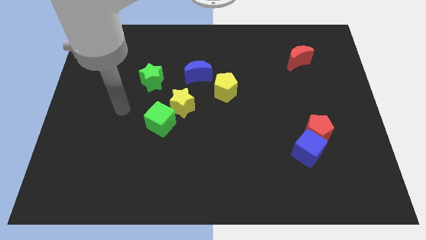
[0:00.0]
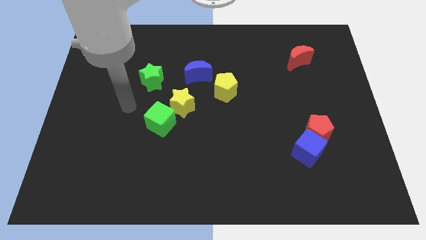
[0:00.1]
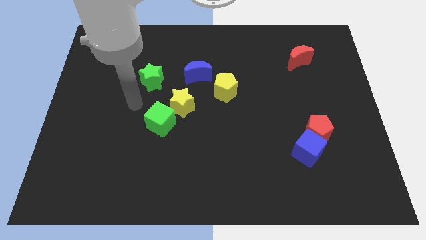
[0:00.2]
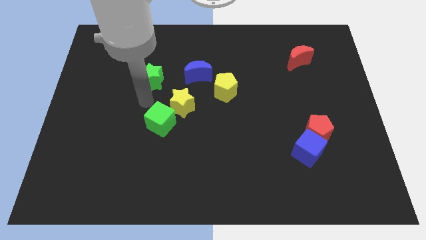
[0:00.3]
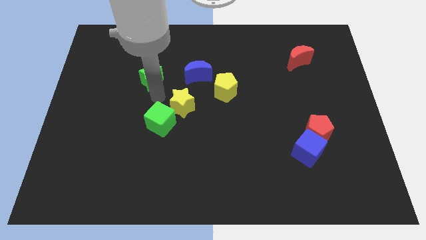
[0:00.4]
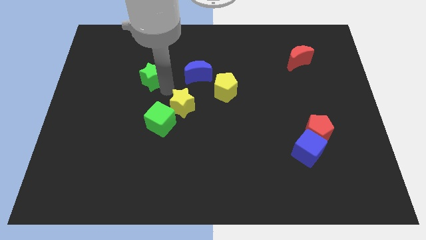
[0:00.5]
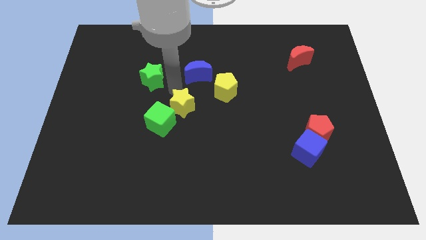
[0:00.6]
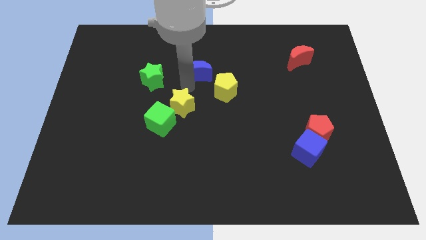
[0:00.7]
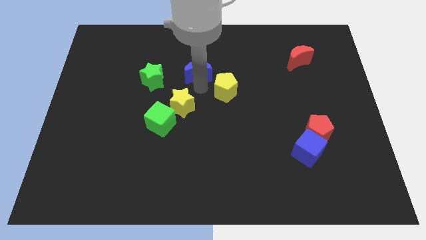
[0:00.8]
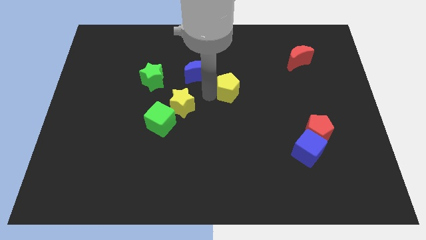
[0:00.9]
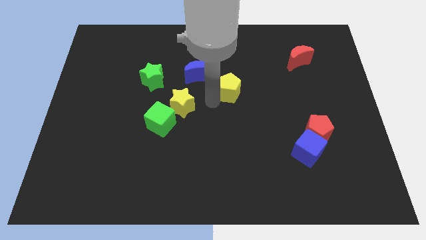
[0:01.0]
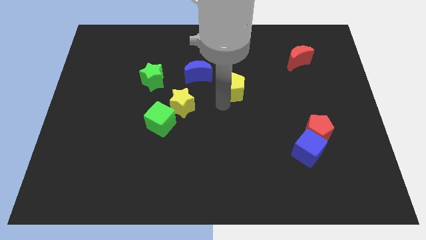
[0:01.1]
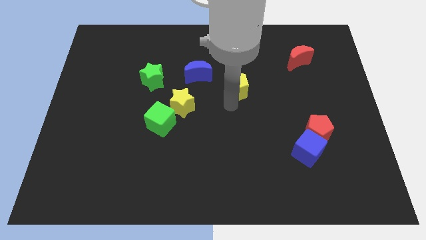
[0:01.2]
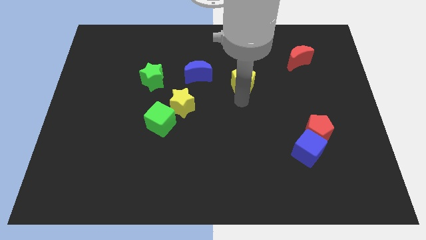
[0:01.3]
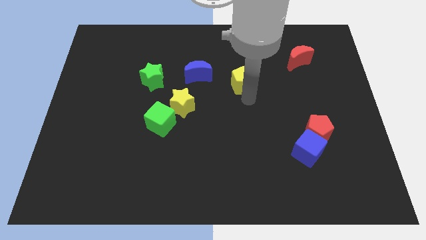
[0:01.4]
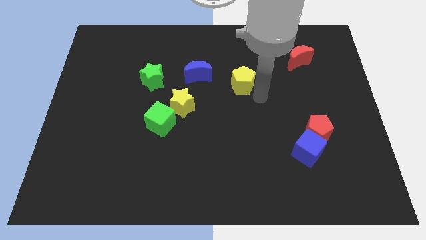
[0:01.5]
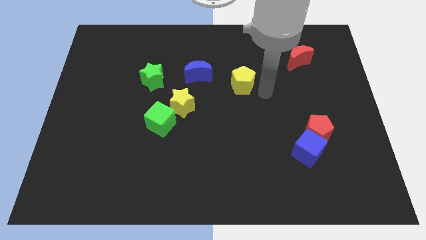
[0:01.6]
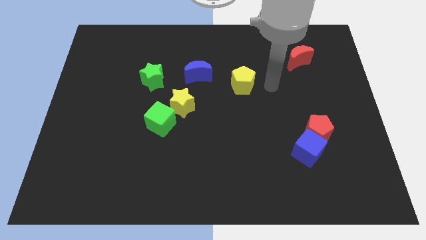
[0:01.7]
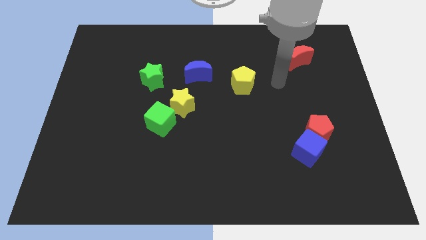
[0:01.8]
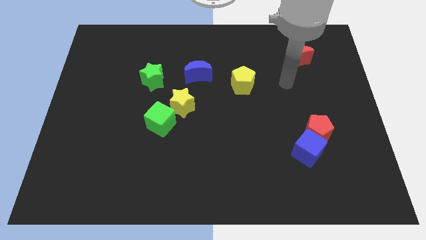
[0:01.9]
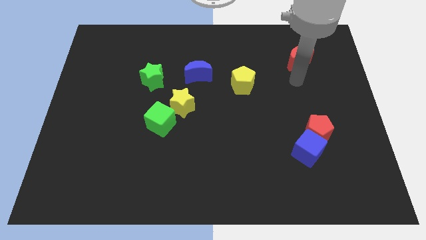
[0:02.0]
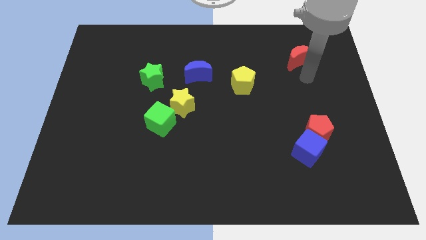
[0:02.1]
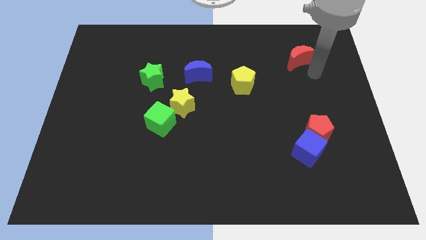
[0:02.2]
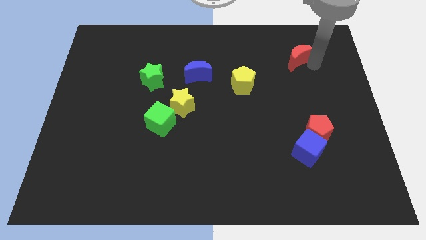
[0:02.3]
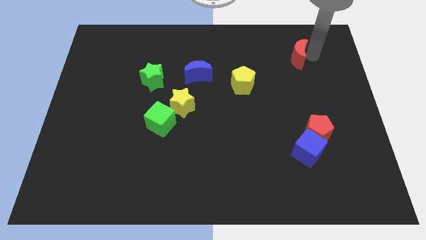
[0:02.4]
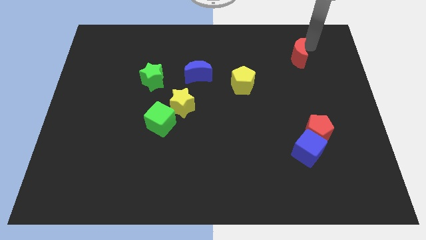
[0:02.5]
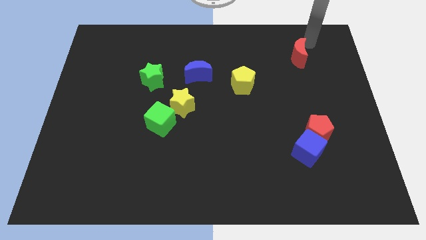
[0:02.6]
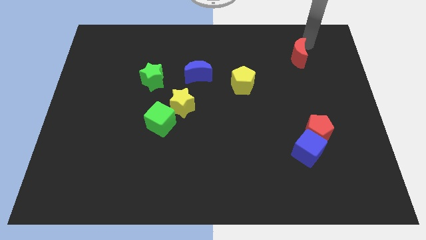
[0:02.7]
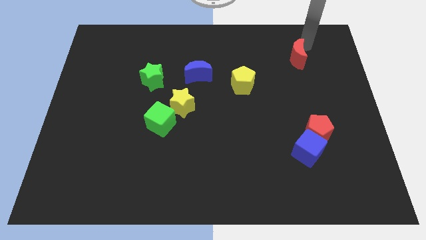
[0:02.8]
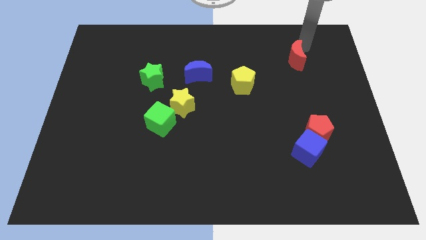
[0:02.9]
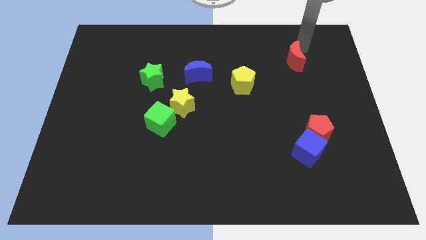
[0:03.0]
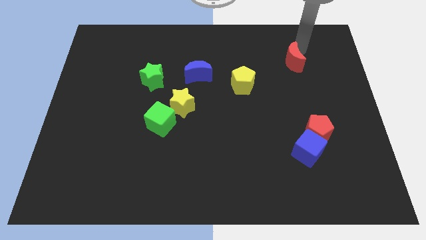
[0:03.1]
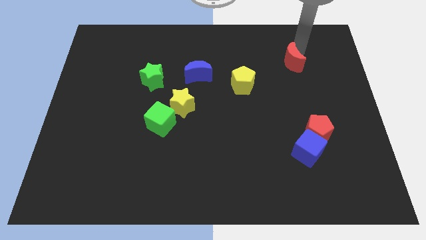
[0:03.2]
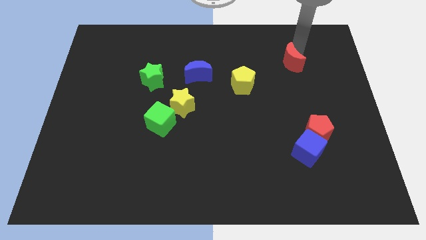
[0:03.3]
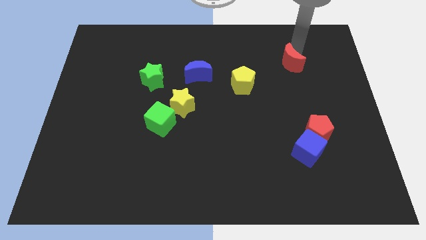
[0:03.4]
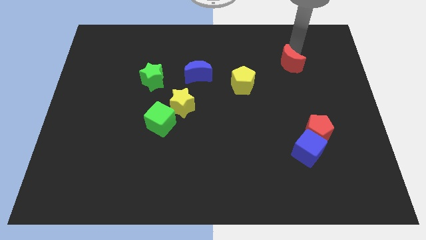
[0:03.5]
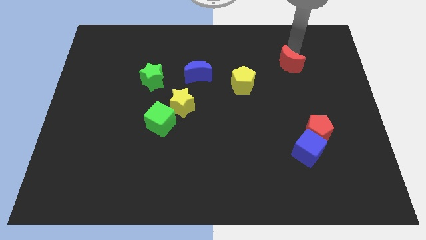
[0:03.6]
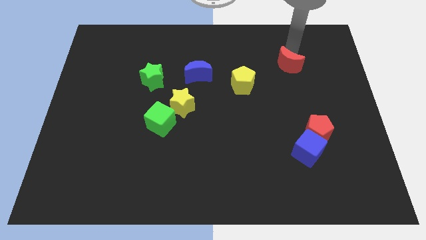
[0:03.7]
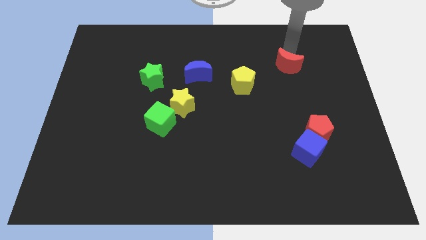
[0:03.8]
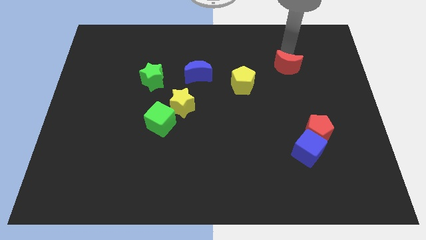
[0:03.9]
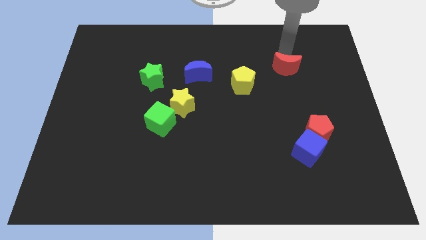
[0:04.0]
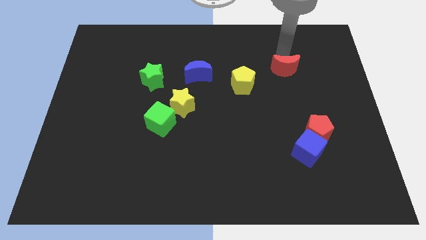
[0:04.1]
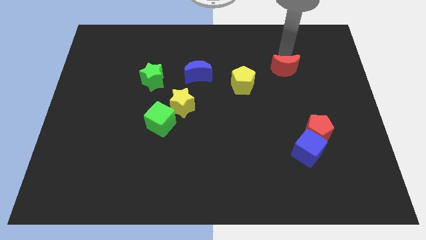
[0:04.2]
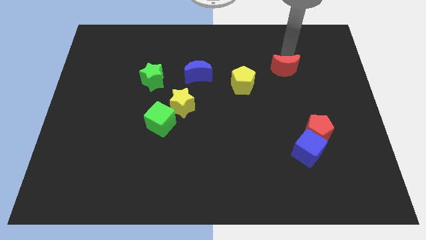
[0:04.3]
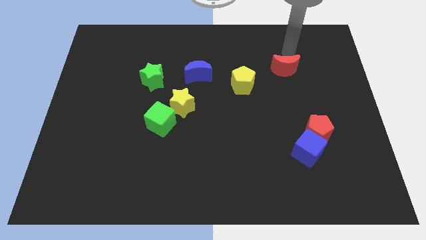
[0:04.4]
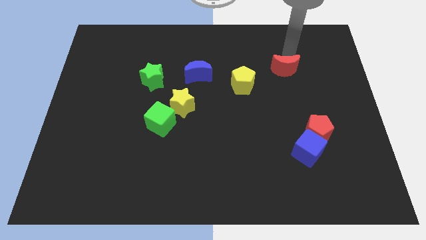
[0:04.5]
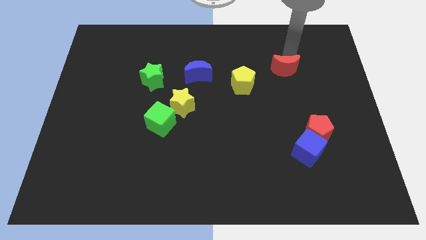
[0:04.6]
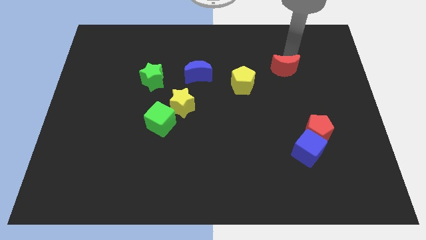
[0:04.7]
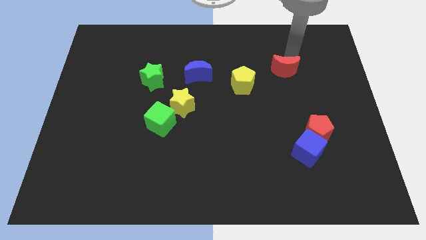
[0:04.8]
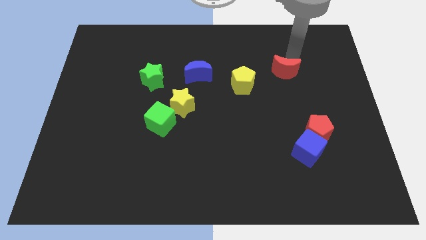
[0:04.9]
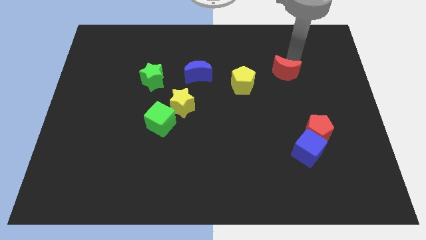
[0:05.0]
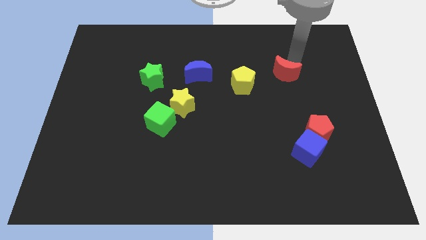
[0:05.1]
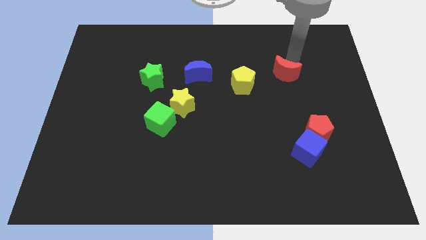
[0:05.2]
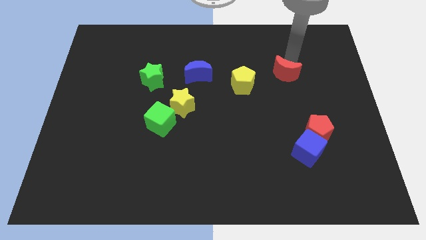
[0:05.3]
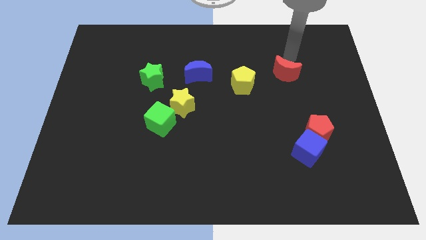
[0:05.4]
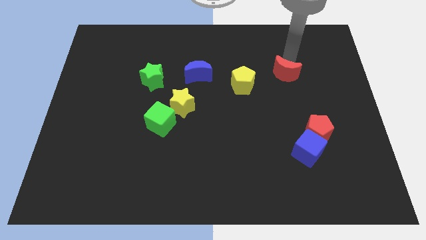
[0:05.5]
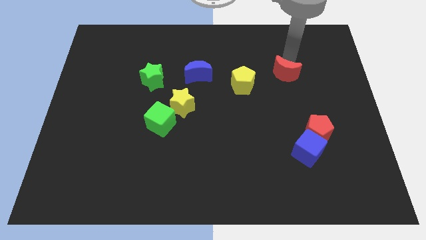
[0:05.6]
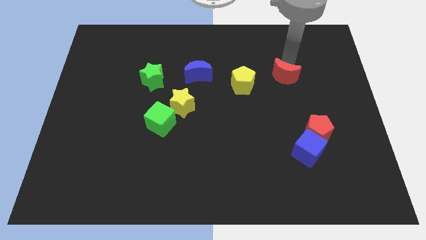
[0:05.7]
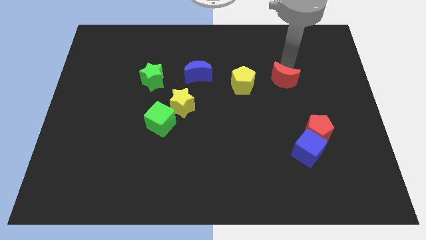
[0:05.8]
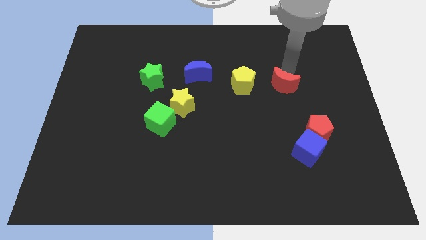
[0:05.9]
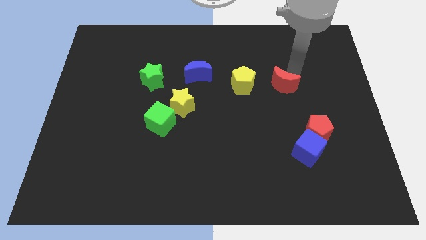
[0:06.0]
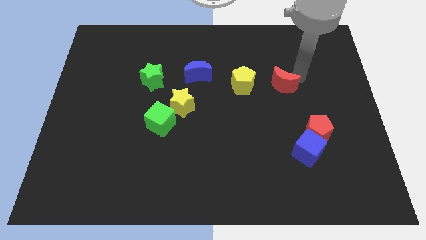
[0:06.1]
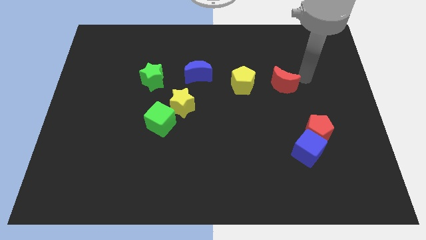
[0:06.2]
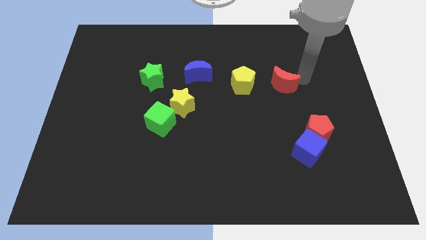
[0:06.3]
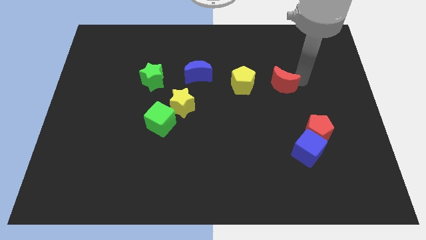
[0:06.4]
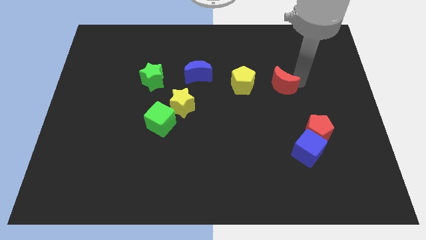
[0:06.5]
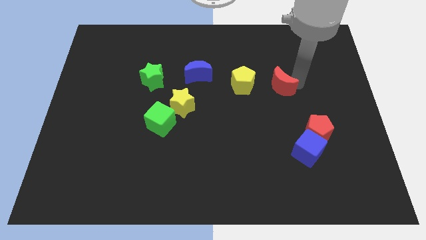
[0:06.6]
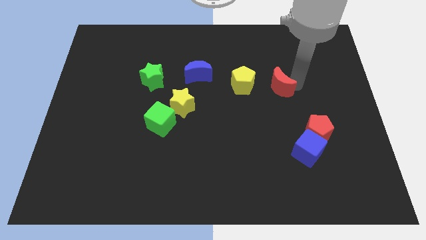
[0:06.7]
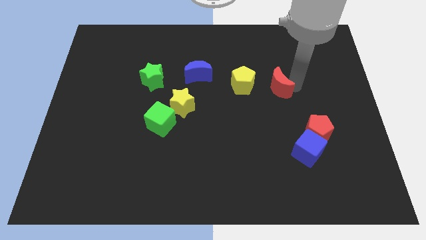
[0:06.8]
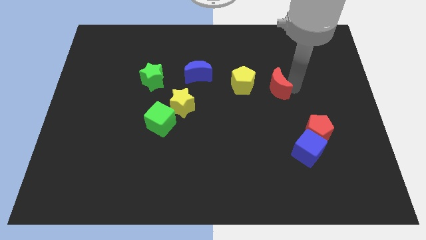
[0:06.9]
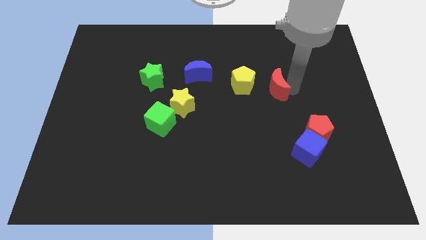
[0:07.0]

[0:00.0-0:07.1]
push the red moon to the bottom right of the yellow pentagon
